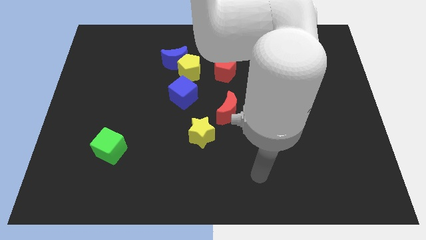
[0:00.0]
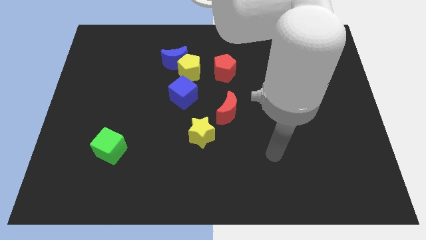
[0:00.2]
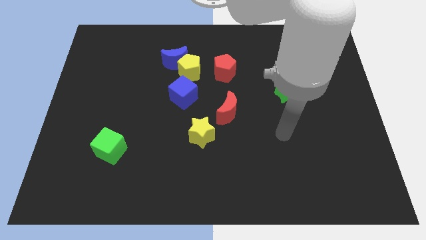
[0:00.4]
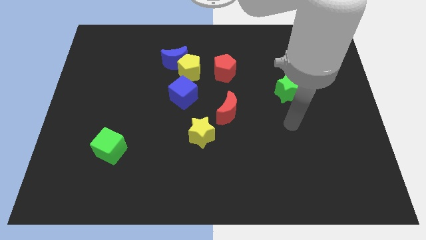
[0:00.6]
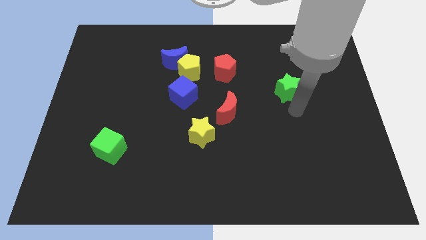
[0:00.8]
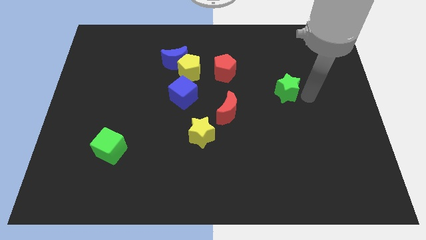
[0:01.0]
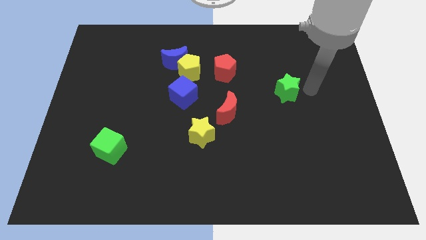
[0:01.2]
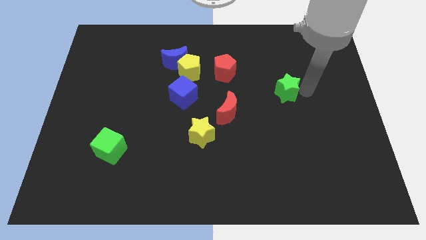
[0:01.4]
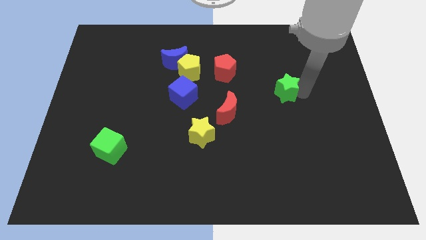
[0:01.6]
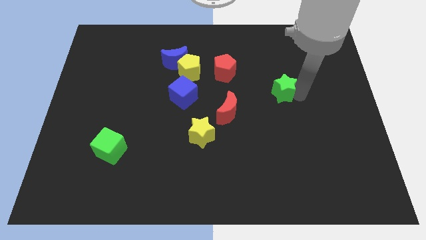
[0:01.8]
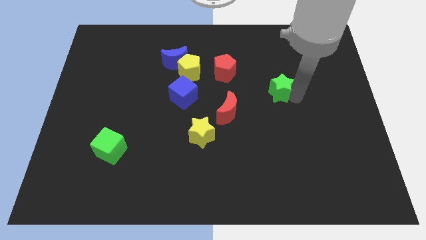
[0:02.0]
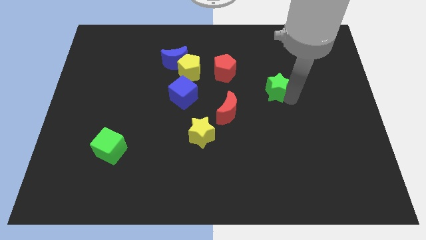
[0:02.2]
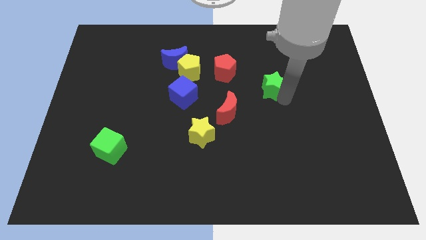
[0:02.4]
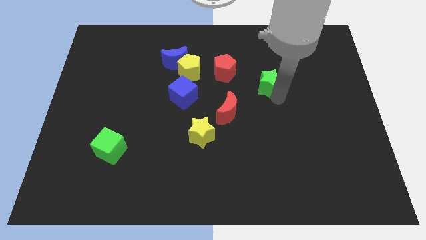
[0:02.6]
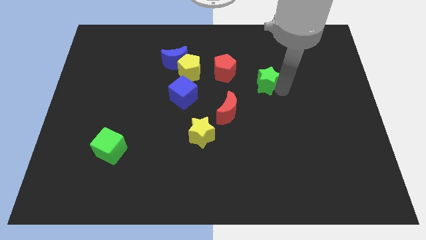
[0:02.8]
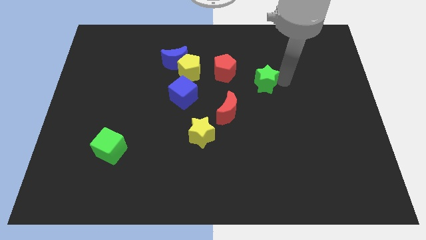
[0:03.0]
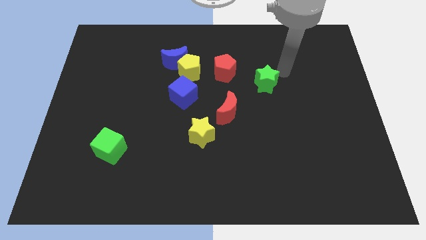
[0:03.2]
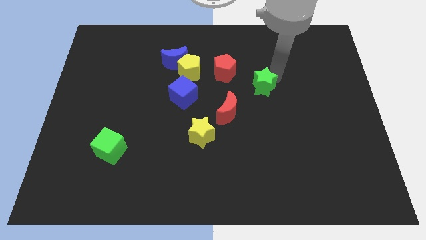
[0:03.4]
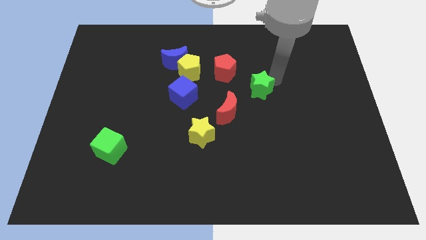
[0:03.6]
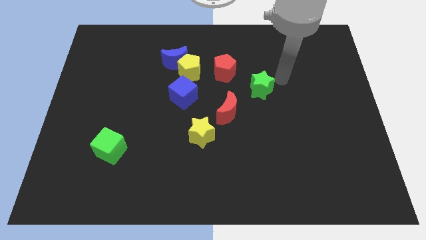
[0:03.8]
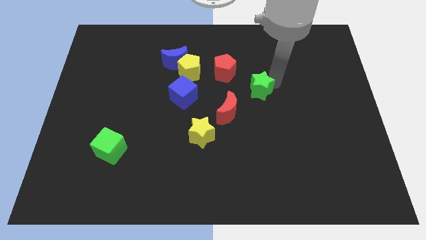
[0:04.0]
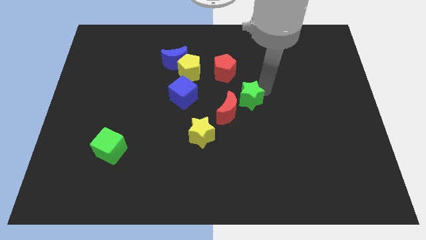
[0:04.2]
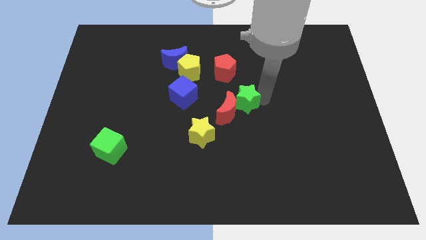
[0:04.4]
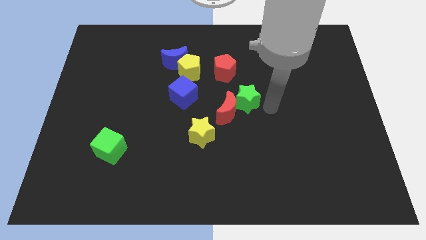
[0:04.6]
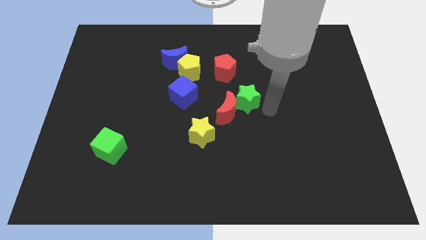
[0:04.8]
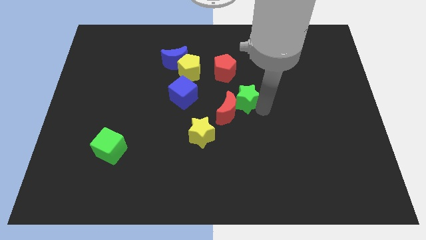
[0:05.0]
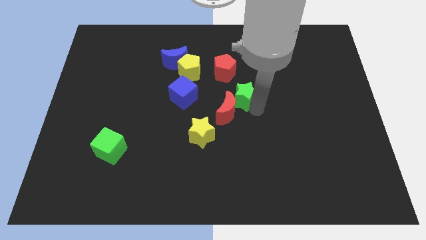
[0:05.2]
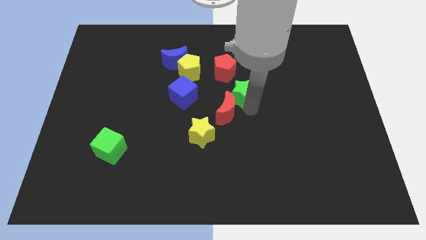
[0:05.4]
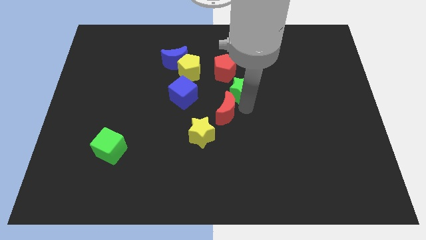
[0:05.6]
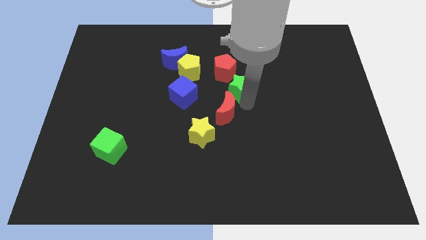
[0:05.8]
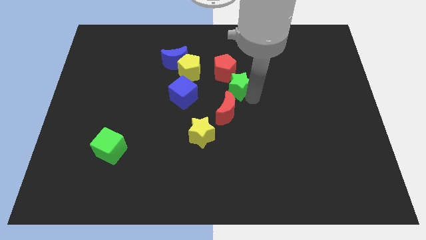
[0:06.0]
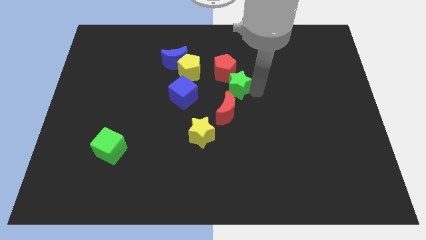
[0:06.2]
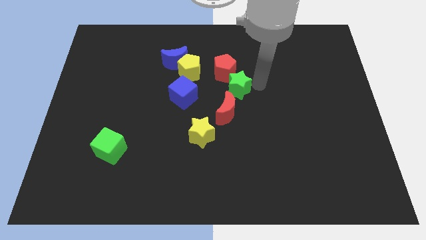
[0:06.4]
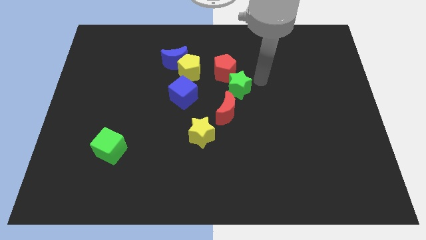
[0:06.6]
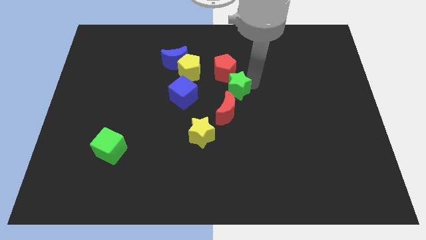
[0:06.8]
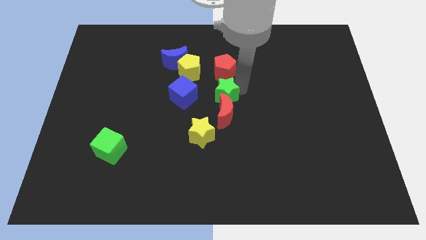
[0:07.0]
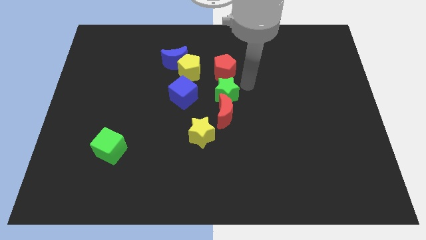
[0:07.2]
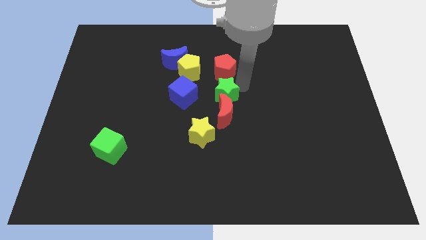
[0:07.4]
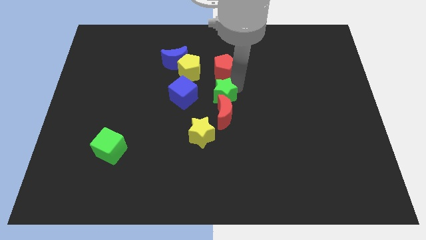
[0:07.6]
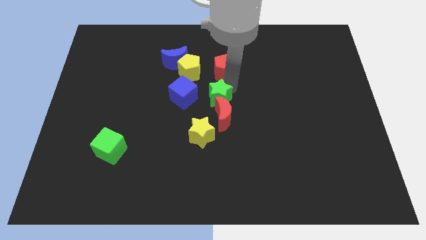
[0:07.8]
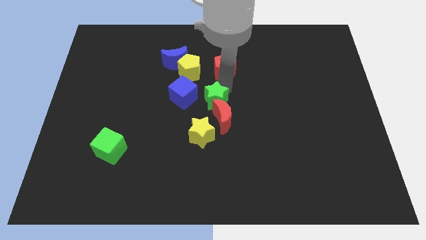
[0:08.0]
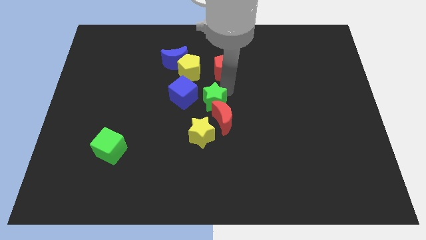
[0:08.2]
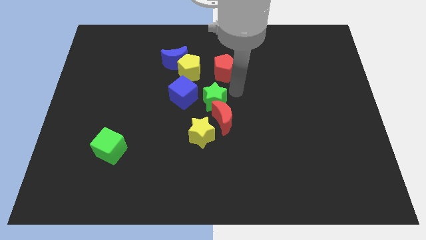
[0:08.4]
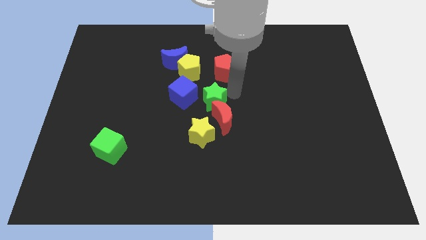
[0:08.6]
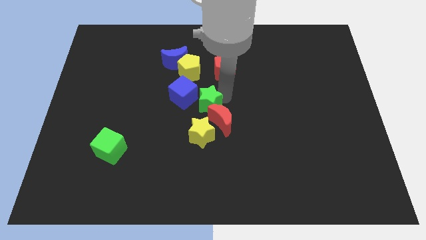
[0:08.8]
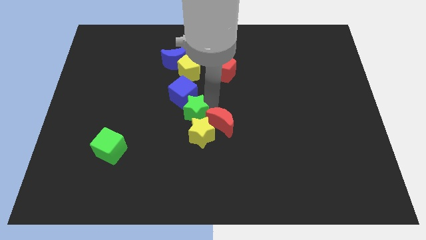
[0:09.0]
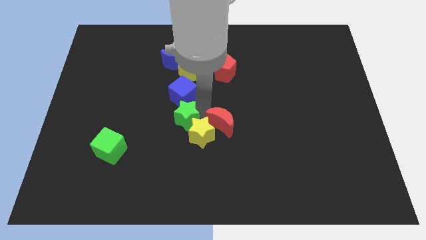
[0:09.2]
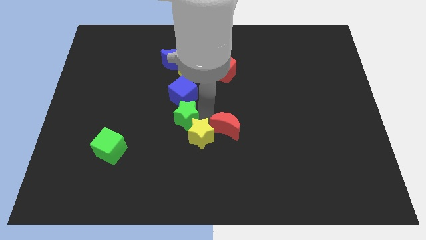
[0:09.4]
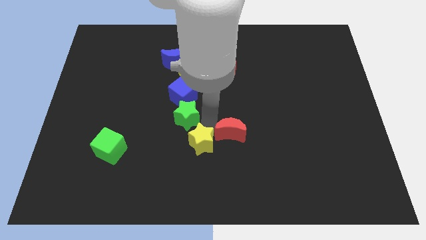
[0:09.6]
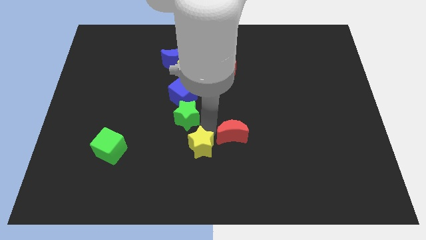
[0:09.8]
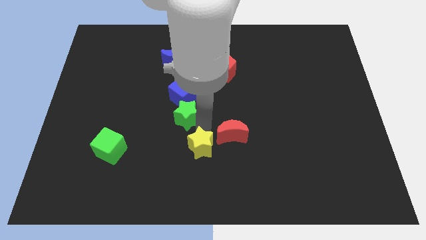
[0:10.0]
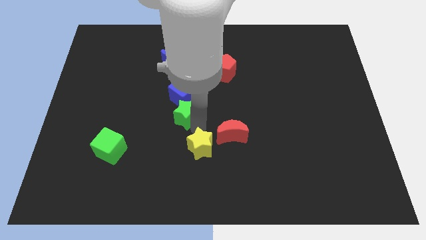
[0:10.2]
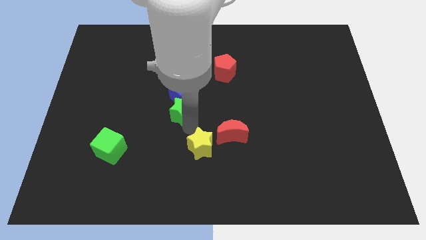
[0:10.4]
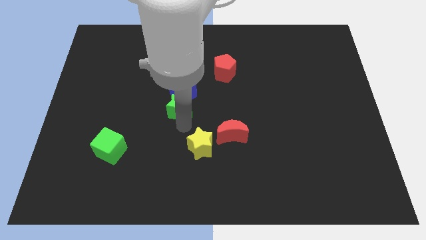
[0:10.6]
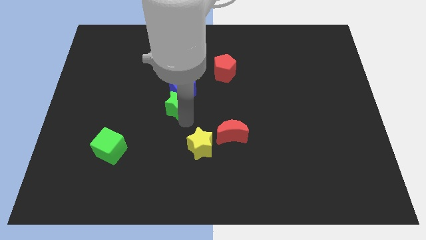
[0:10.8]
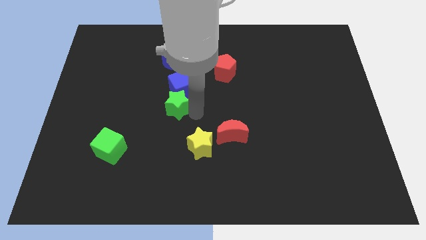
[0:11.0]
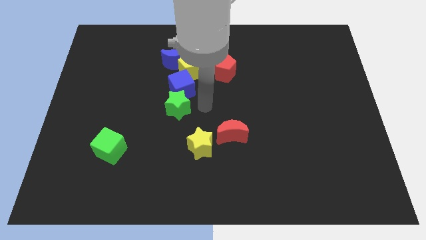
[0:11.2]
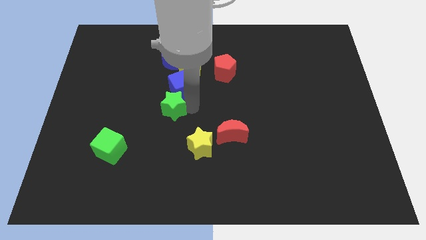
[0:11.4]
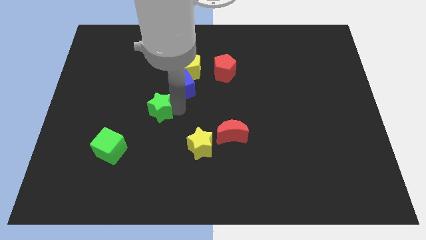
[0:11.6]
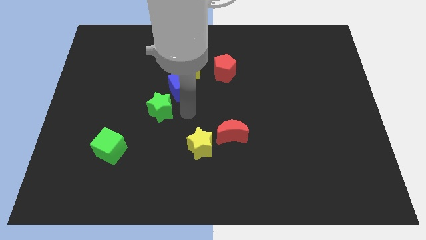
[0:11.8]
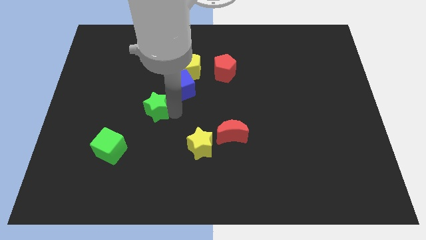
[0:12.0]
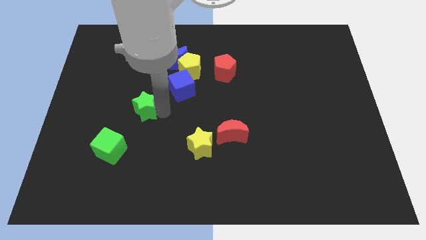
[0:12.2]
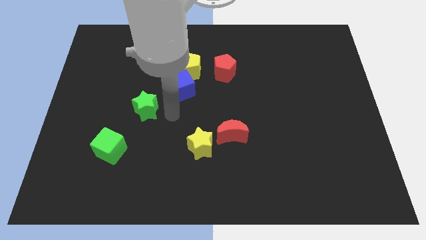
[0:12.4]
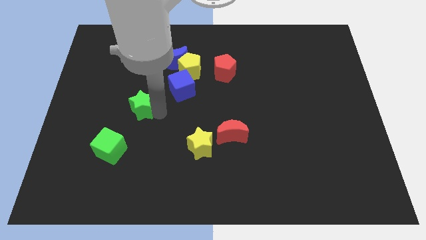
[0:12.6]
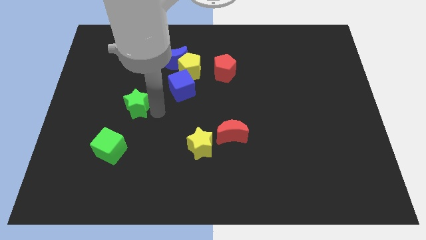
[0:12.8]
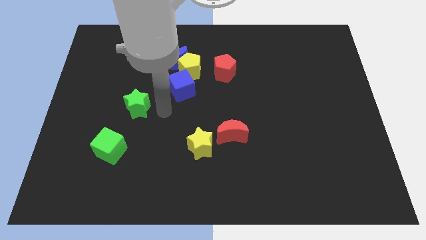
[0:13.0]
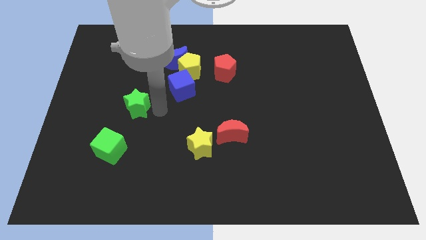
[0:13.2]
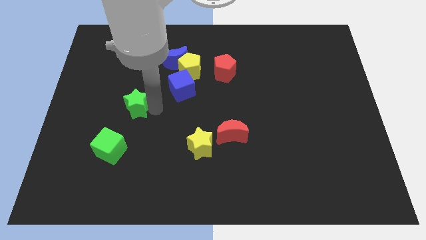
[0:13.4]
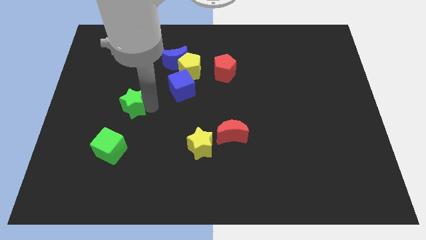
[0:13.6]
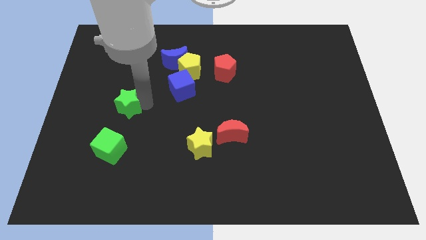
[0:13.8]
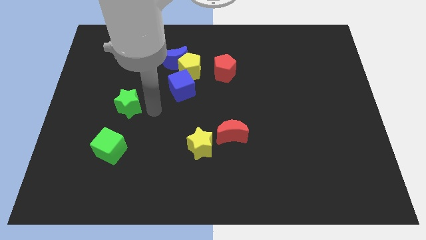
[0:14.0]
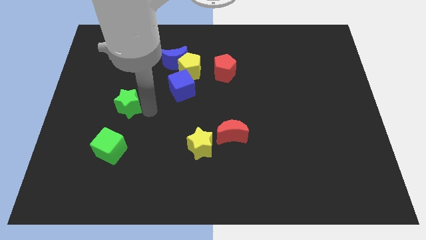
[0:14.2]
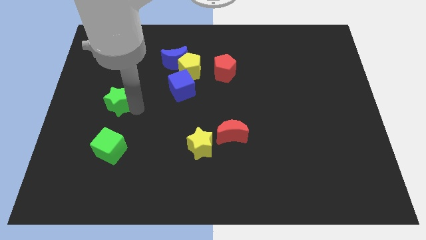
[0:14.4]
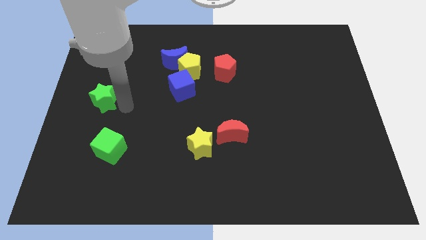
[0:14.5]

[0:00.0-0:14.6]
slide the green star to the left side of the board
